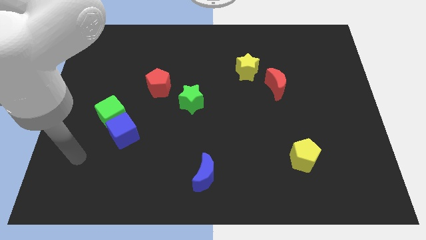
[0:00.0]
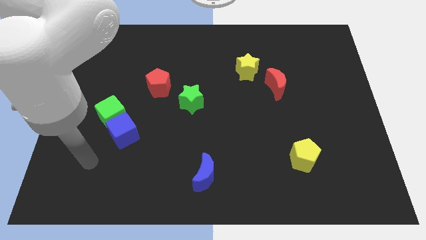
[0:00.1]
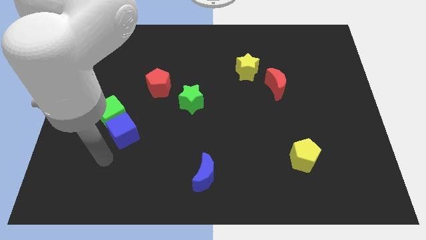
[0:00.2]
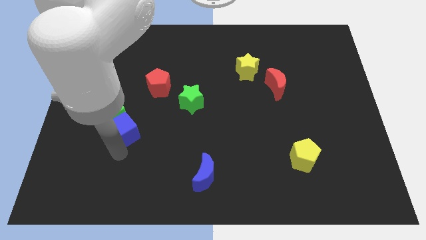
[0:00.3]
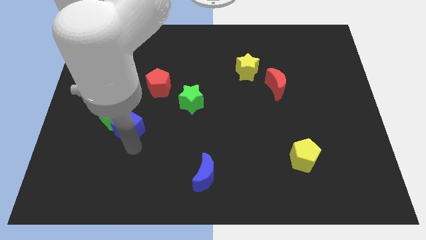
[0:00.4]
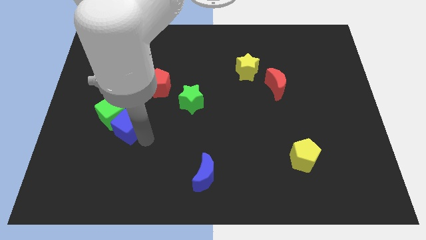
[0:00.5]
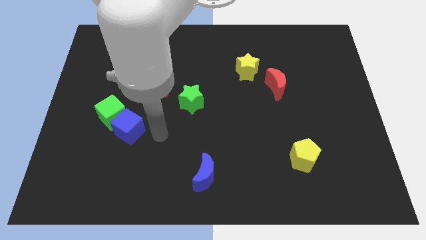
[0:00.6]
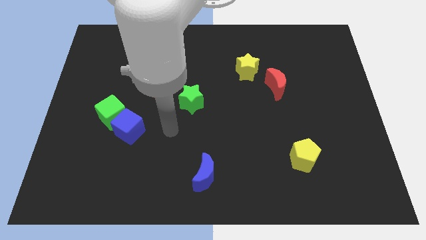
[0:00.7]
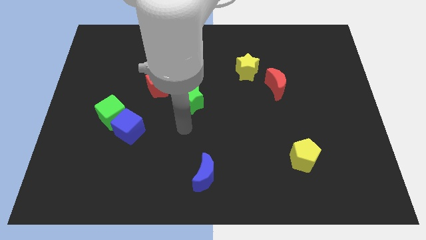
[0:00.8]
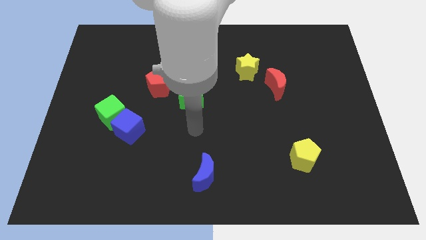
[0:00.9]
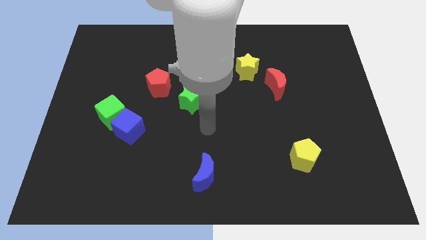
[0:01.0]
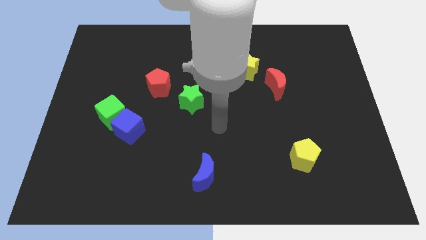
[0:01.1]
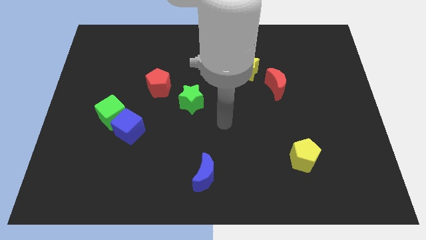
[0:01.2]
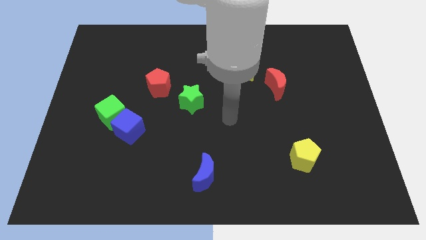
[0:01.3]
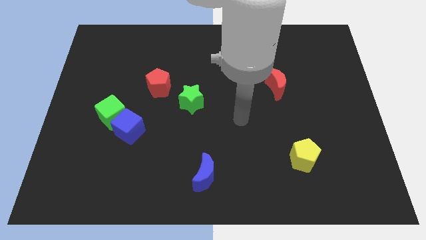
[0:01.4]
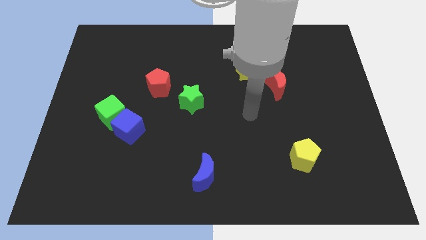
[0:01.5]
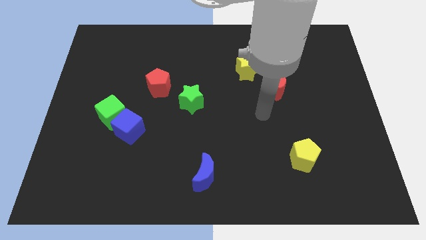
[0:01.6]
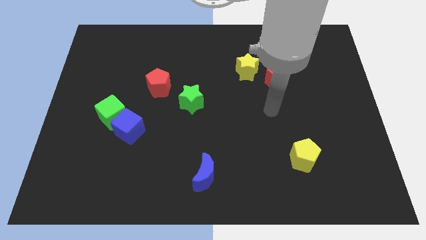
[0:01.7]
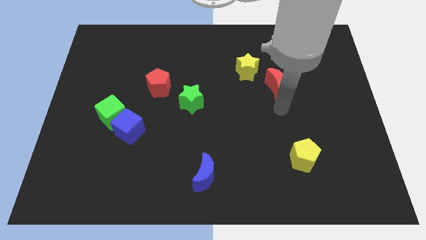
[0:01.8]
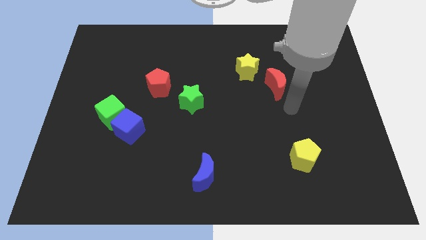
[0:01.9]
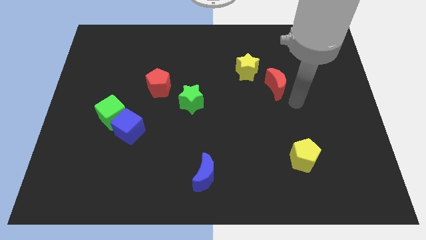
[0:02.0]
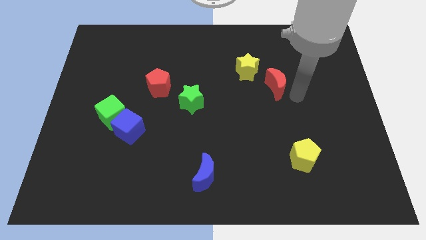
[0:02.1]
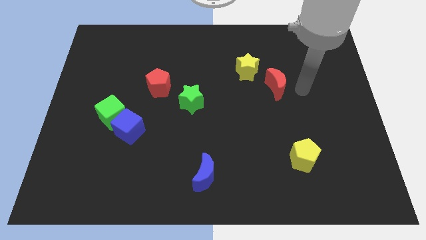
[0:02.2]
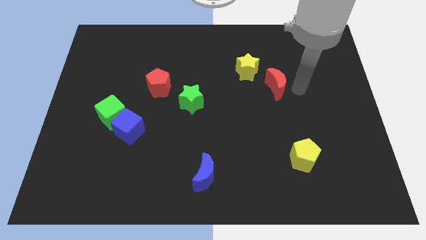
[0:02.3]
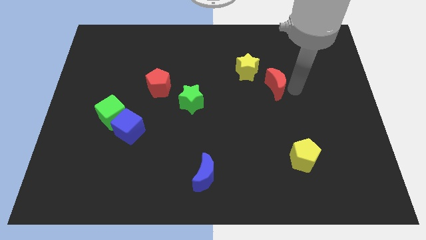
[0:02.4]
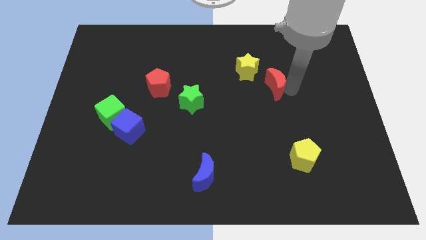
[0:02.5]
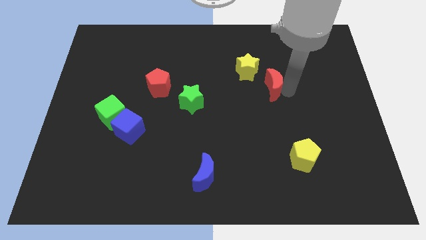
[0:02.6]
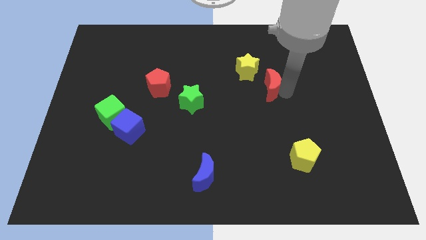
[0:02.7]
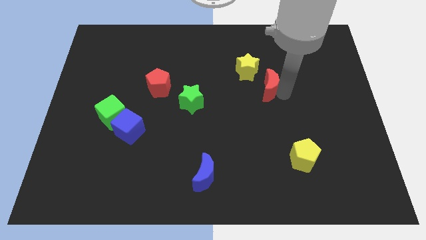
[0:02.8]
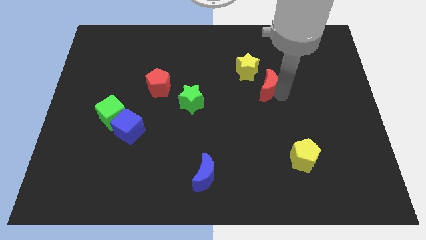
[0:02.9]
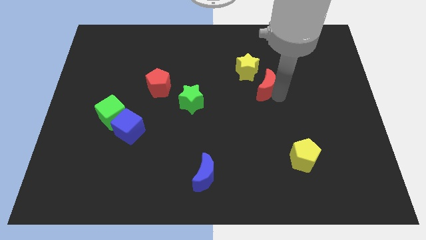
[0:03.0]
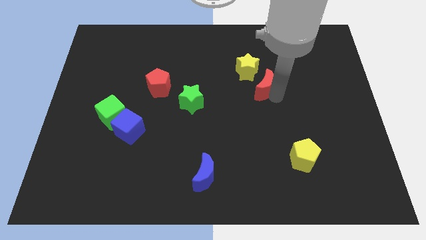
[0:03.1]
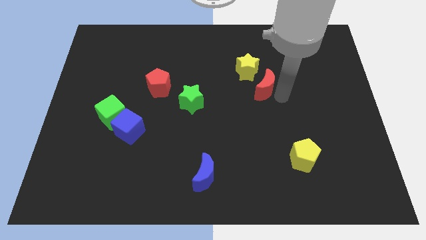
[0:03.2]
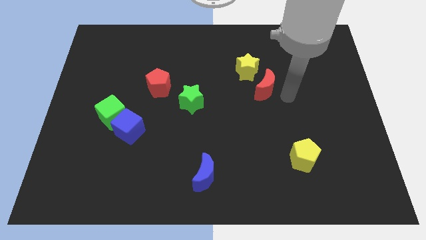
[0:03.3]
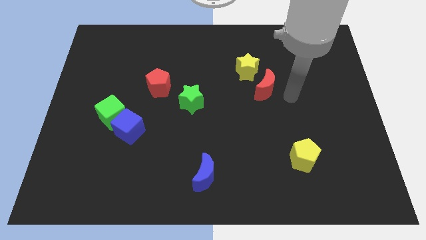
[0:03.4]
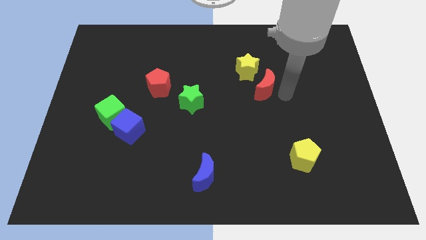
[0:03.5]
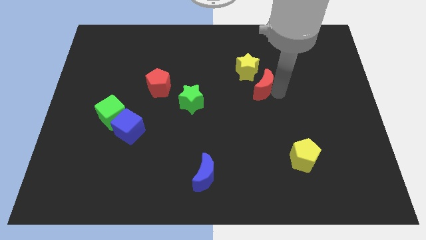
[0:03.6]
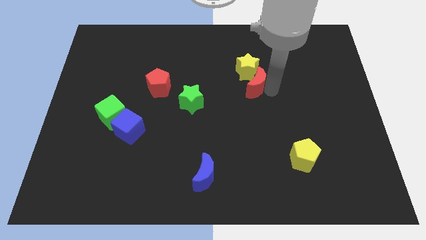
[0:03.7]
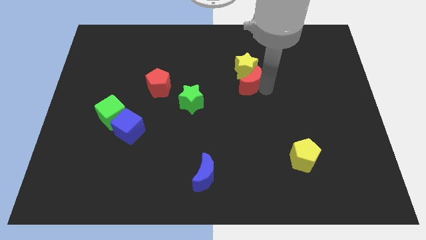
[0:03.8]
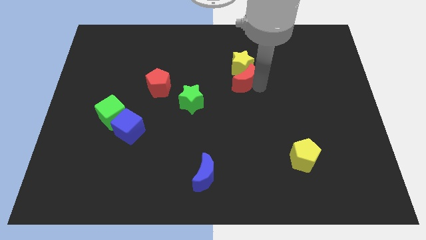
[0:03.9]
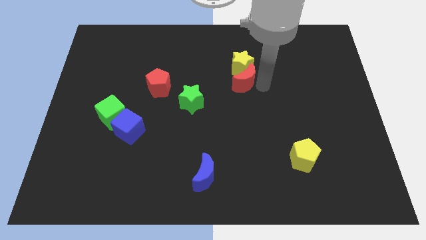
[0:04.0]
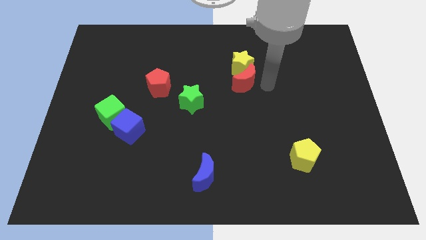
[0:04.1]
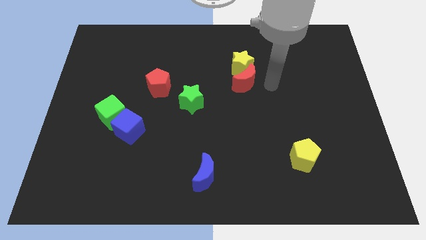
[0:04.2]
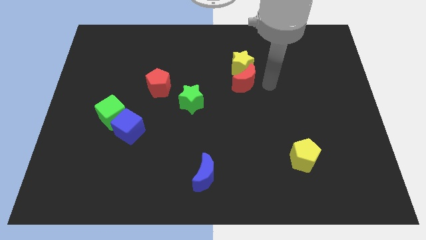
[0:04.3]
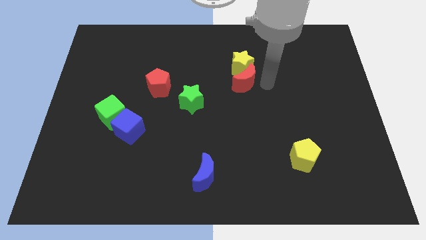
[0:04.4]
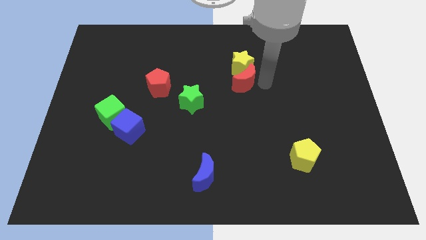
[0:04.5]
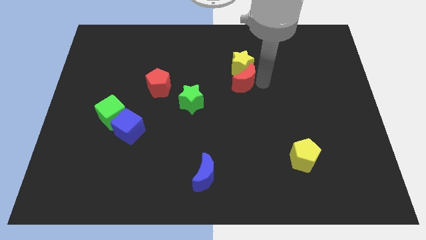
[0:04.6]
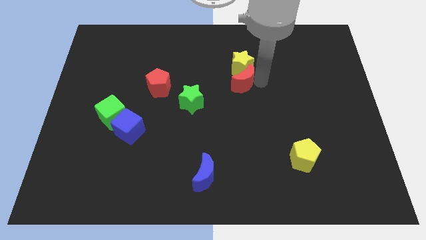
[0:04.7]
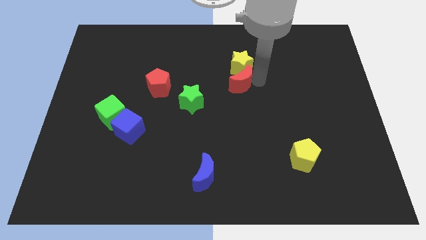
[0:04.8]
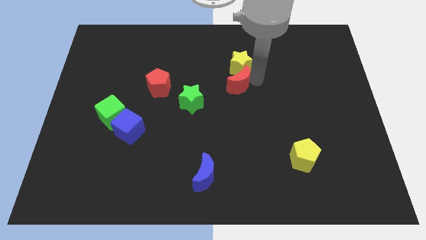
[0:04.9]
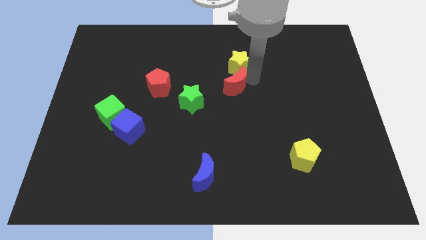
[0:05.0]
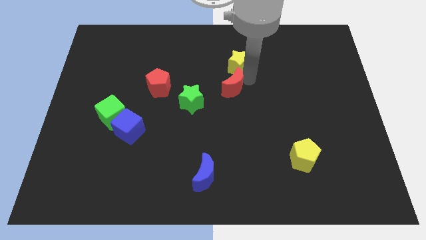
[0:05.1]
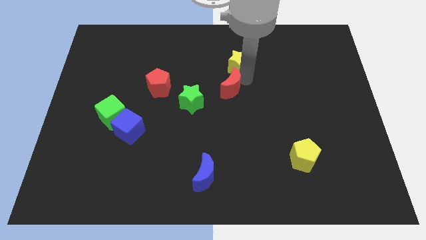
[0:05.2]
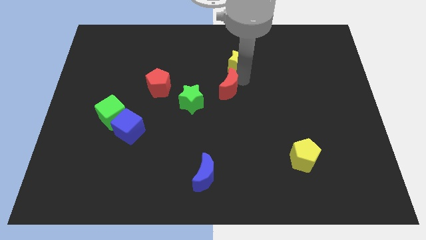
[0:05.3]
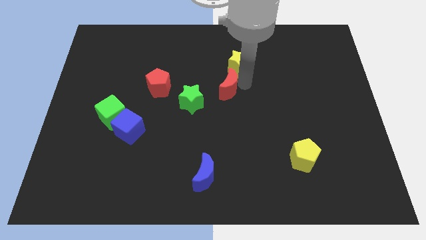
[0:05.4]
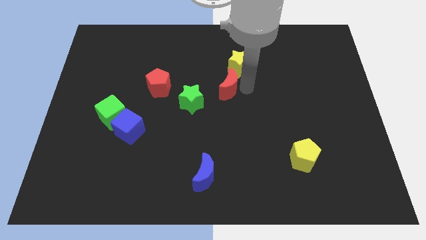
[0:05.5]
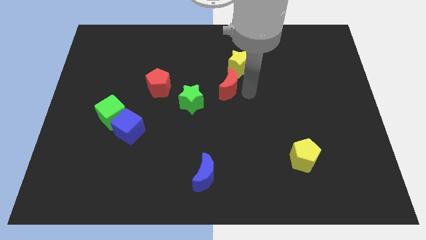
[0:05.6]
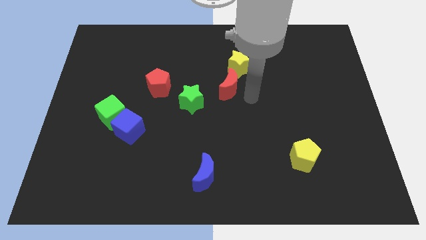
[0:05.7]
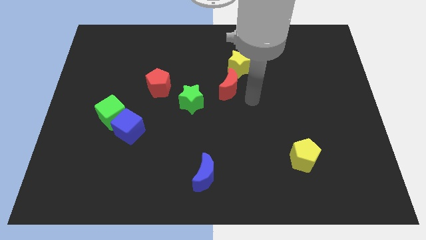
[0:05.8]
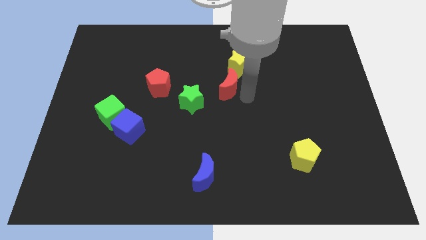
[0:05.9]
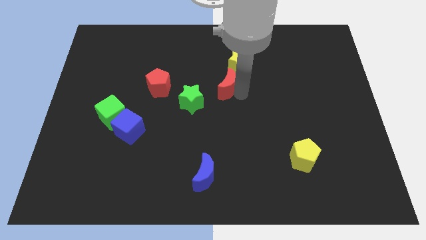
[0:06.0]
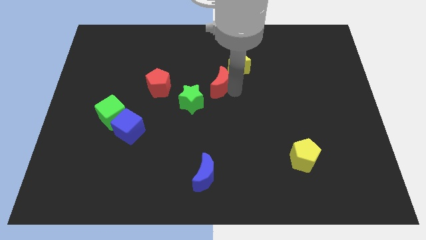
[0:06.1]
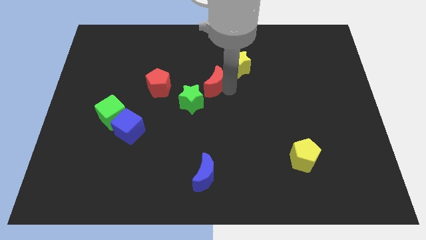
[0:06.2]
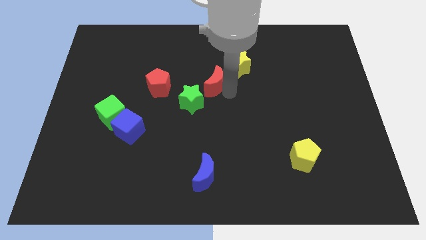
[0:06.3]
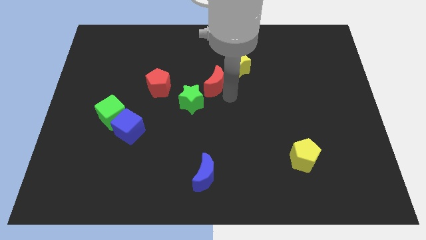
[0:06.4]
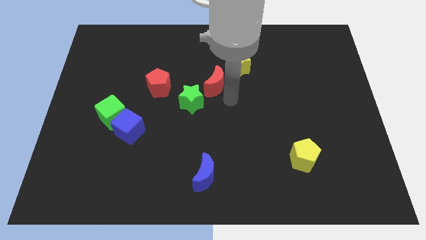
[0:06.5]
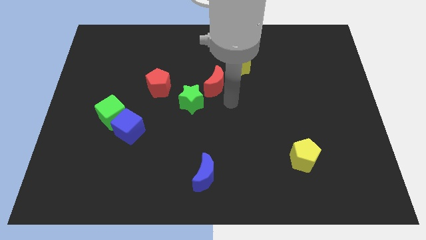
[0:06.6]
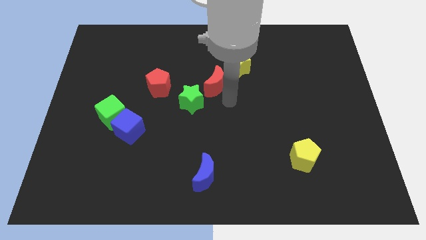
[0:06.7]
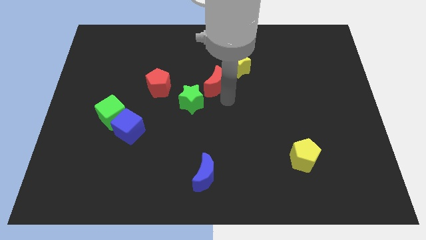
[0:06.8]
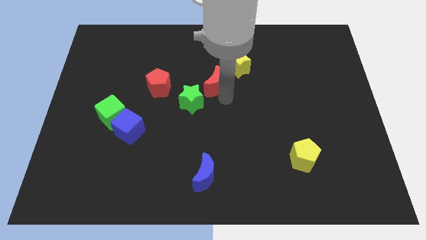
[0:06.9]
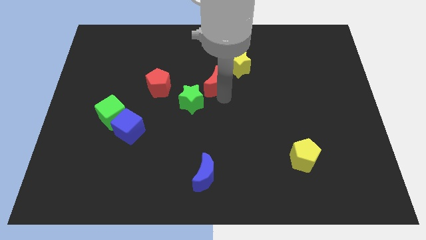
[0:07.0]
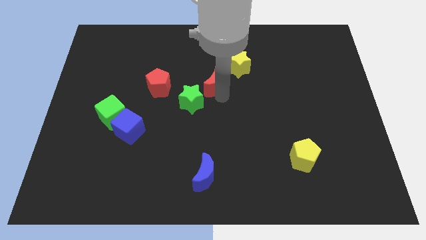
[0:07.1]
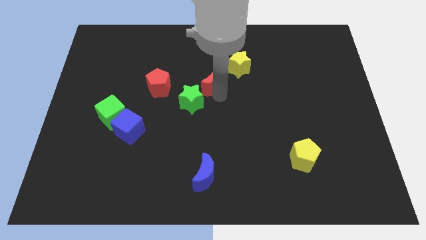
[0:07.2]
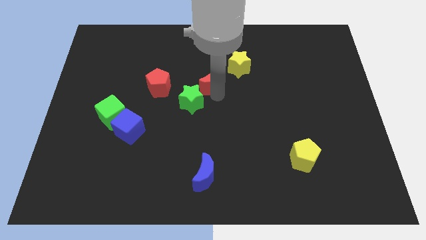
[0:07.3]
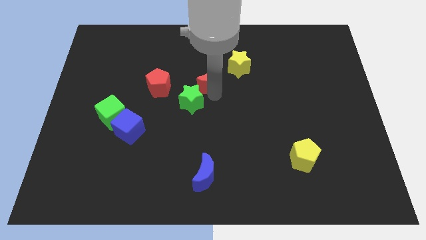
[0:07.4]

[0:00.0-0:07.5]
move the red moon above the green star
